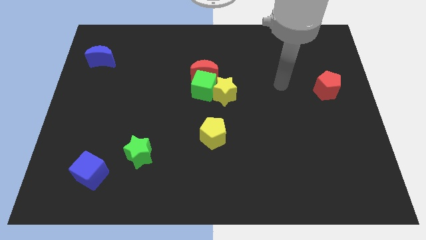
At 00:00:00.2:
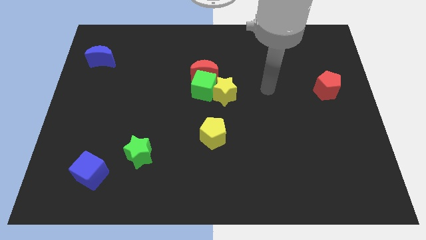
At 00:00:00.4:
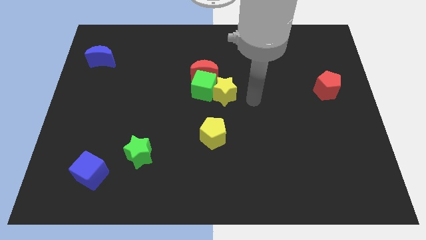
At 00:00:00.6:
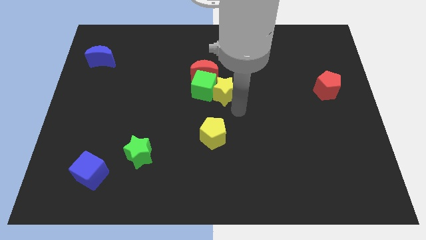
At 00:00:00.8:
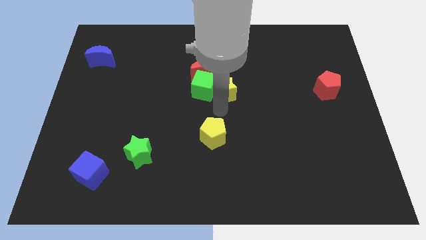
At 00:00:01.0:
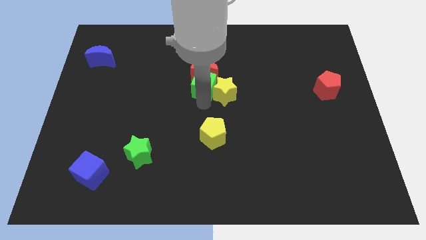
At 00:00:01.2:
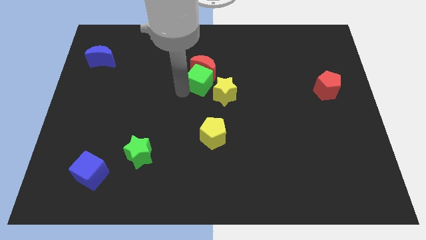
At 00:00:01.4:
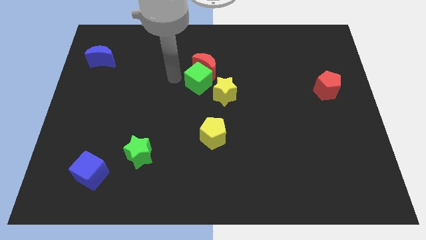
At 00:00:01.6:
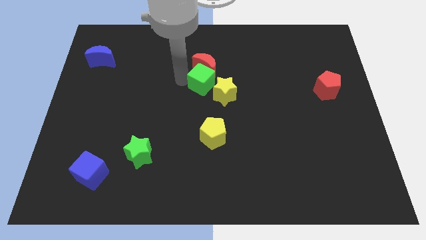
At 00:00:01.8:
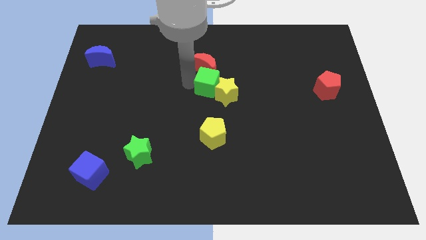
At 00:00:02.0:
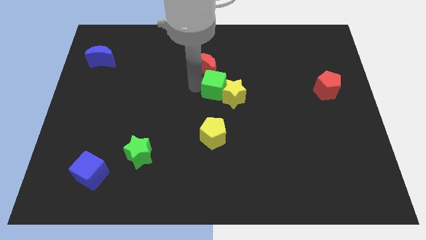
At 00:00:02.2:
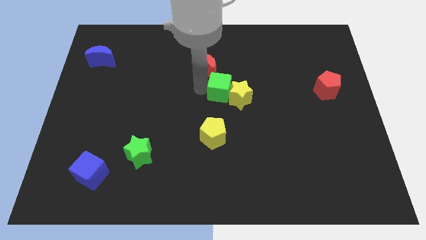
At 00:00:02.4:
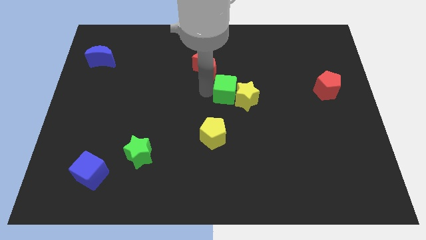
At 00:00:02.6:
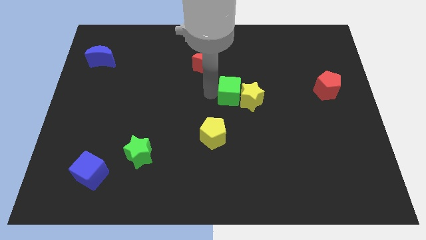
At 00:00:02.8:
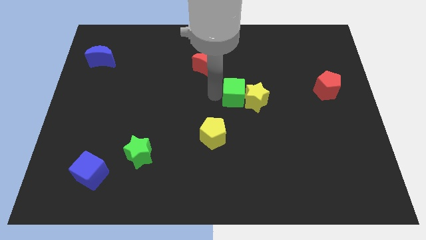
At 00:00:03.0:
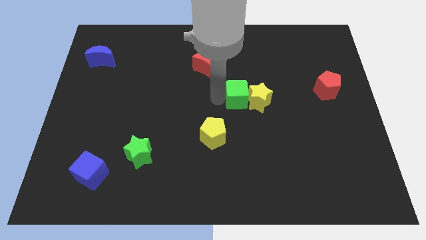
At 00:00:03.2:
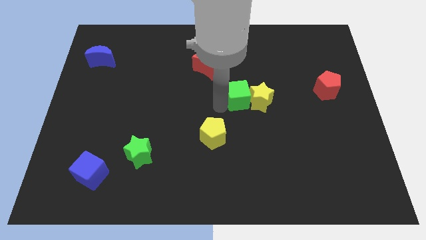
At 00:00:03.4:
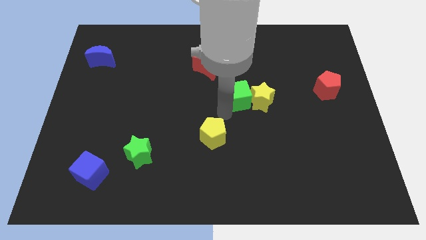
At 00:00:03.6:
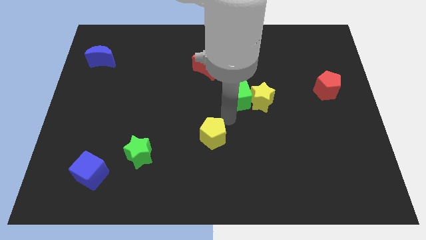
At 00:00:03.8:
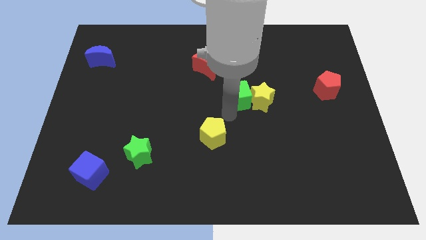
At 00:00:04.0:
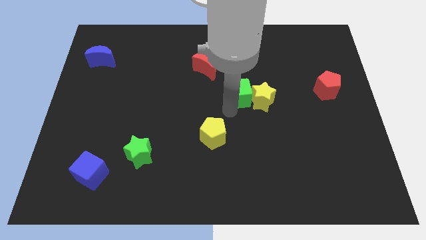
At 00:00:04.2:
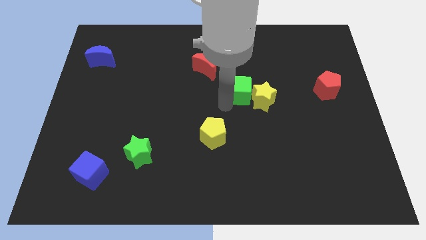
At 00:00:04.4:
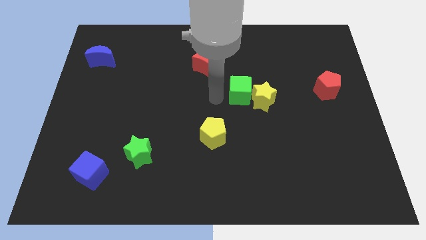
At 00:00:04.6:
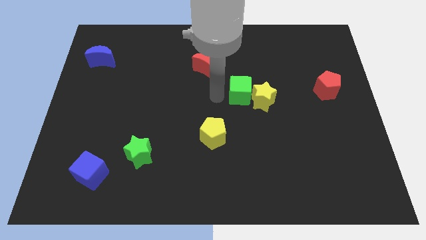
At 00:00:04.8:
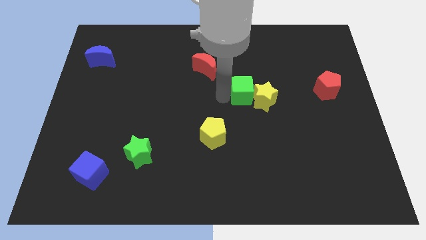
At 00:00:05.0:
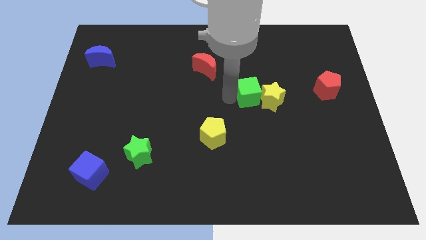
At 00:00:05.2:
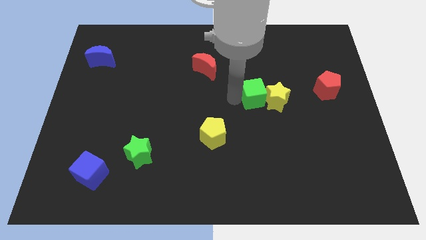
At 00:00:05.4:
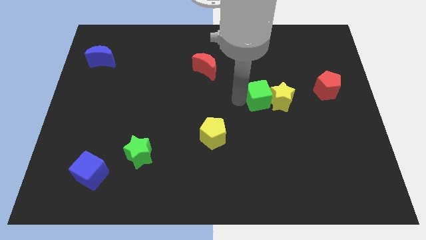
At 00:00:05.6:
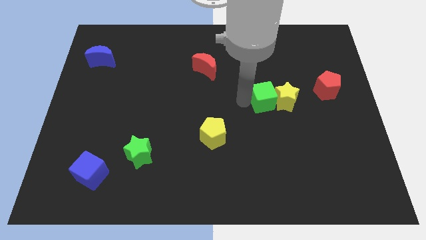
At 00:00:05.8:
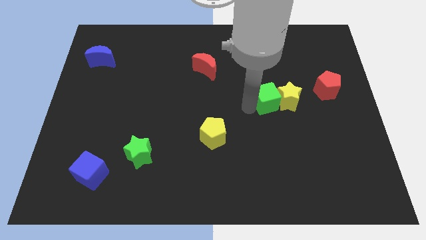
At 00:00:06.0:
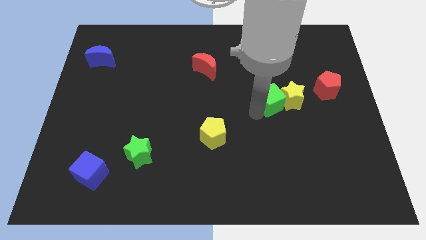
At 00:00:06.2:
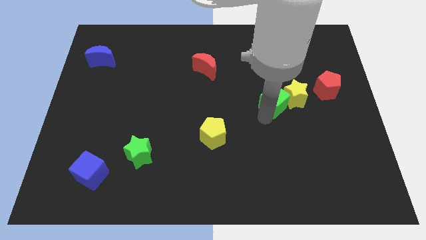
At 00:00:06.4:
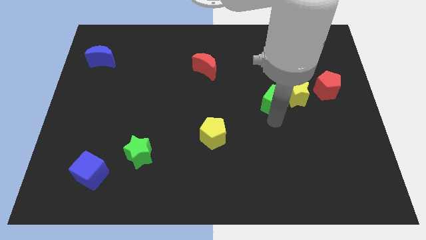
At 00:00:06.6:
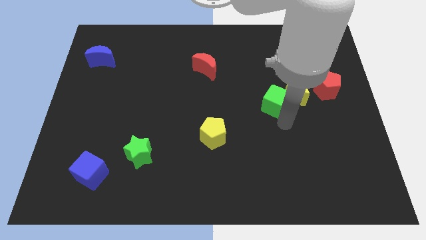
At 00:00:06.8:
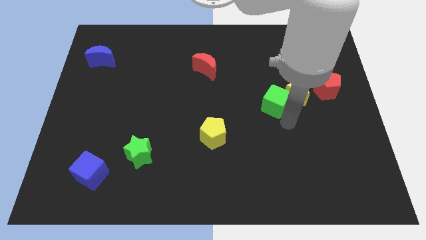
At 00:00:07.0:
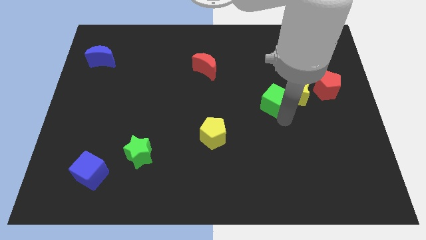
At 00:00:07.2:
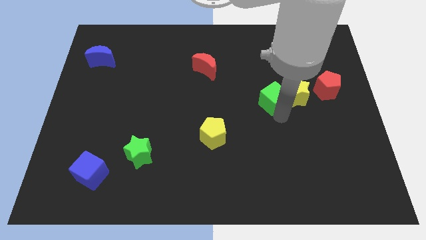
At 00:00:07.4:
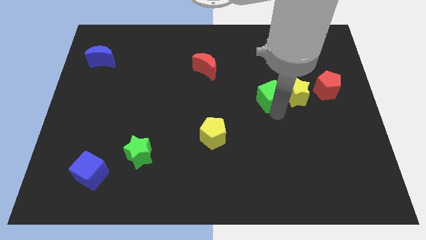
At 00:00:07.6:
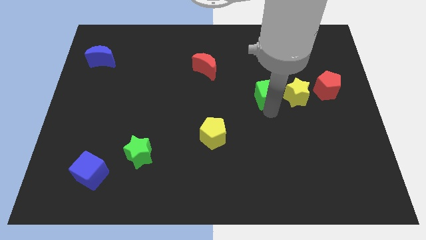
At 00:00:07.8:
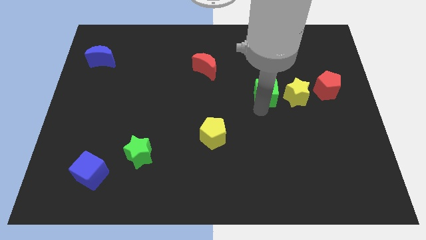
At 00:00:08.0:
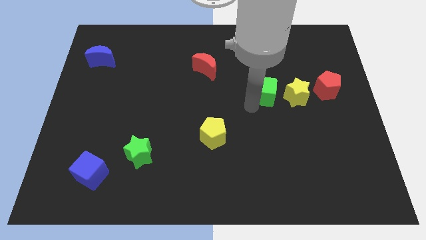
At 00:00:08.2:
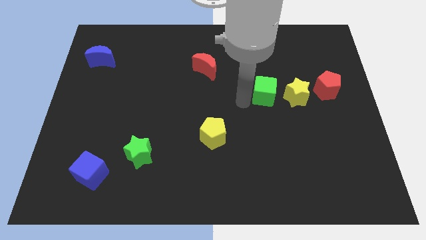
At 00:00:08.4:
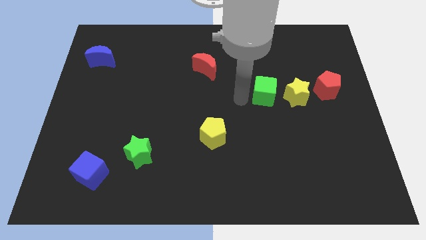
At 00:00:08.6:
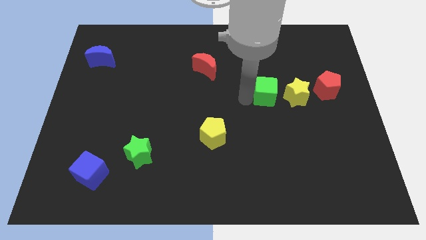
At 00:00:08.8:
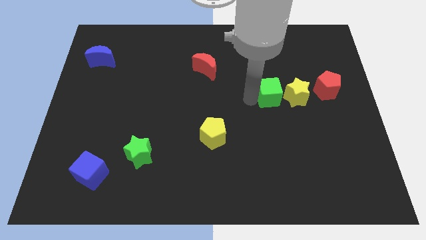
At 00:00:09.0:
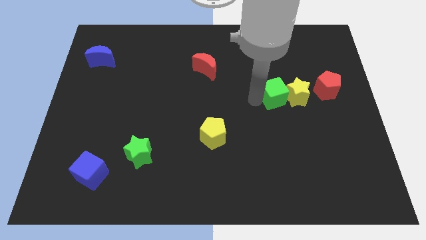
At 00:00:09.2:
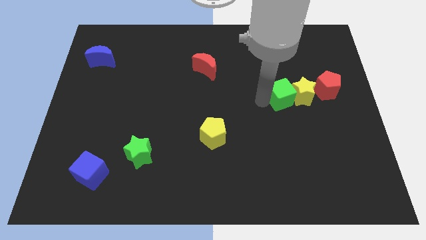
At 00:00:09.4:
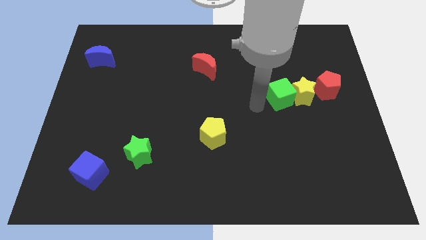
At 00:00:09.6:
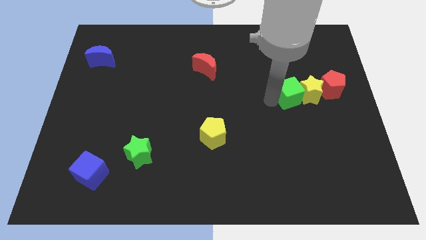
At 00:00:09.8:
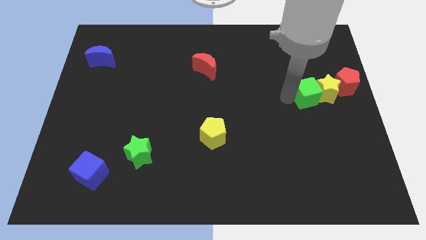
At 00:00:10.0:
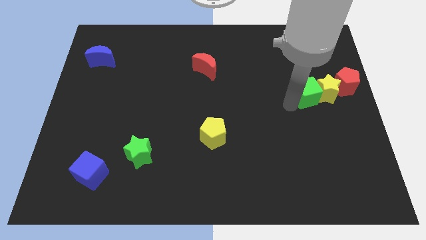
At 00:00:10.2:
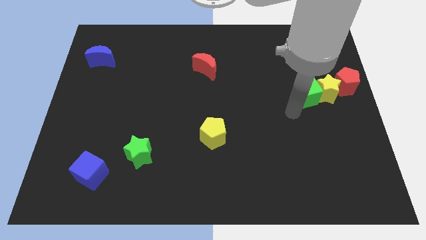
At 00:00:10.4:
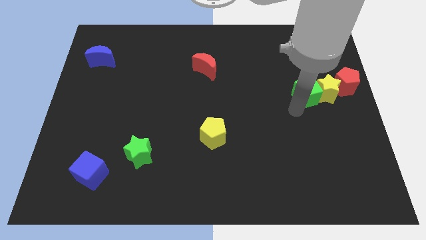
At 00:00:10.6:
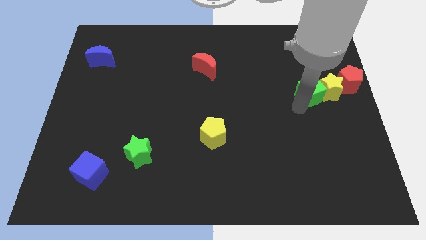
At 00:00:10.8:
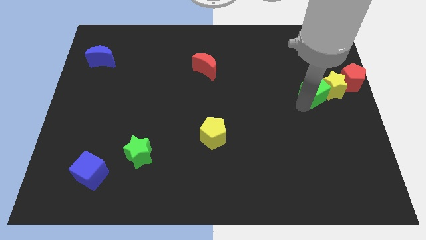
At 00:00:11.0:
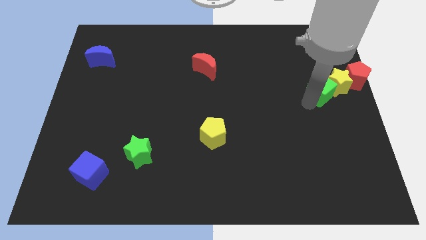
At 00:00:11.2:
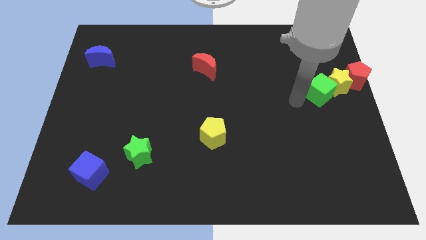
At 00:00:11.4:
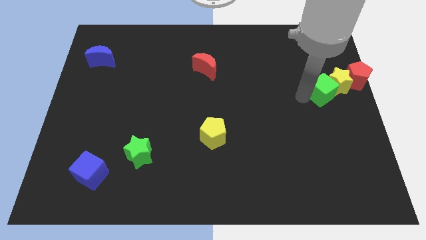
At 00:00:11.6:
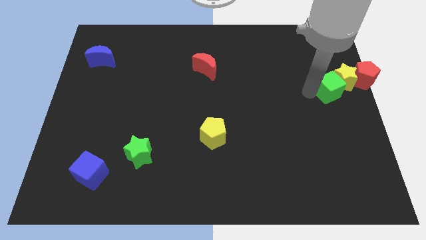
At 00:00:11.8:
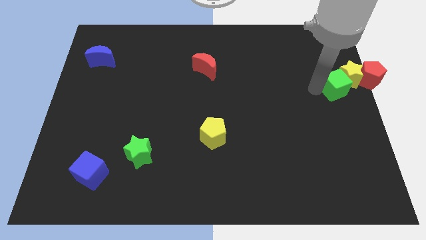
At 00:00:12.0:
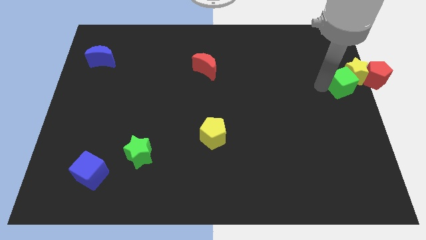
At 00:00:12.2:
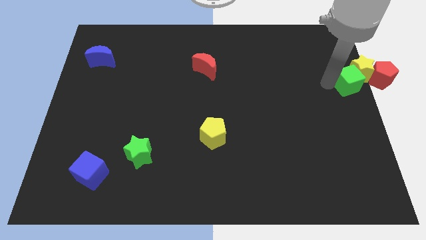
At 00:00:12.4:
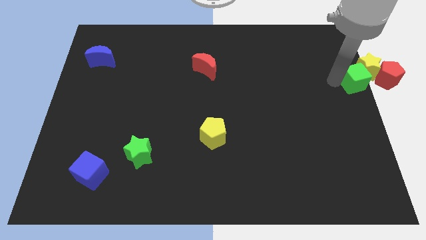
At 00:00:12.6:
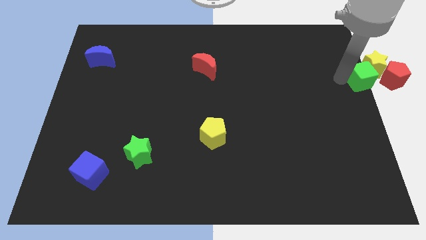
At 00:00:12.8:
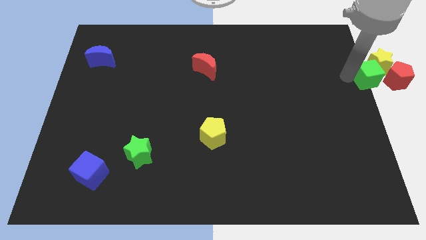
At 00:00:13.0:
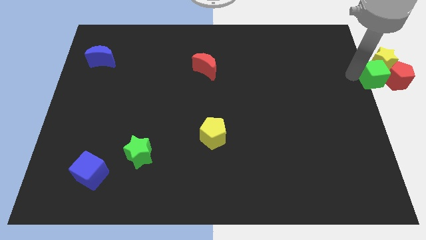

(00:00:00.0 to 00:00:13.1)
push the green cube next to the red pentagon

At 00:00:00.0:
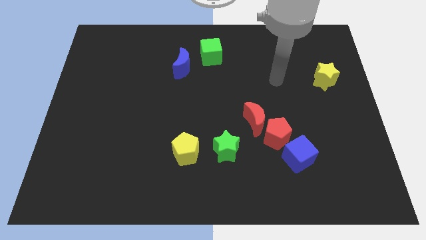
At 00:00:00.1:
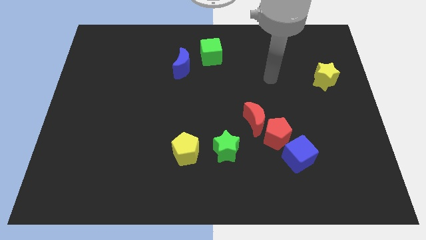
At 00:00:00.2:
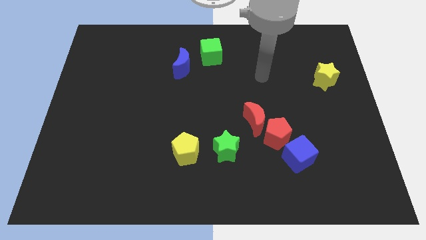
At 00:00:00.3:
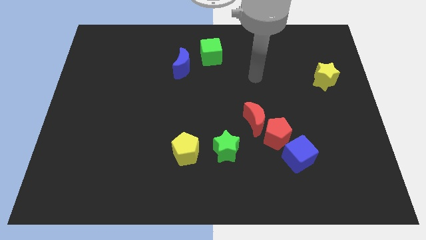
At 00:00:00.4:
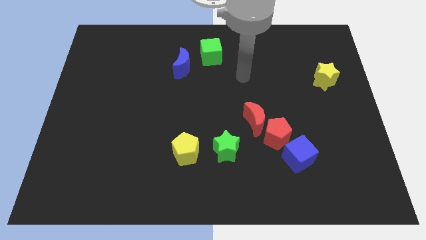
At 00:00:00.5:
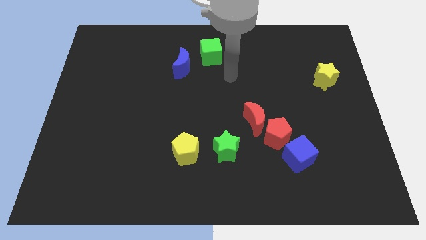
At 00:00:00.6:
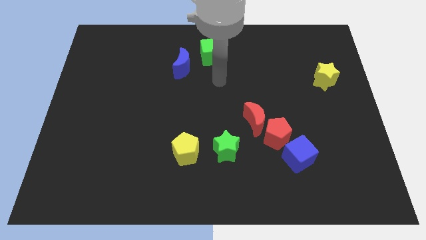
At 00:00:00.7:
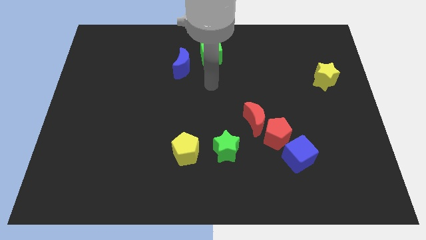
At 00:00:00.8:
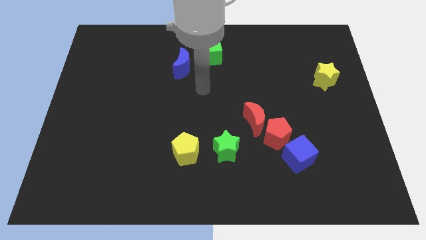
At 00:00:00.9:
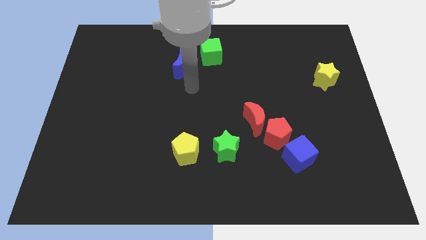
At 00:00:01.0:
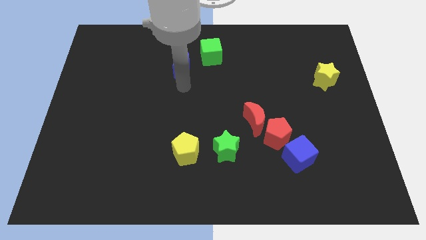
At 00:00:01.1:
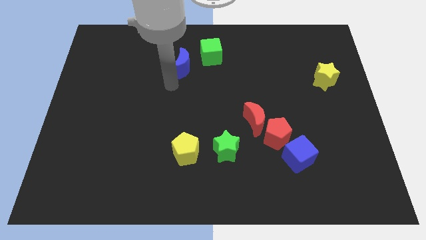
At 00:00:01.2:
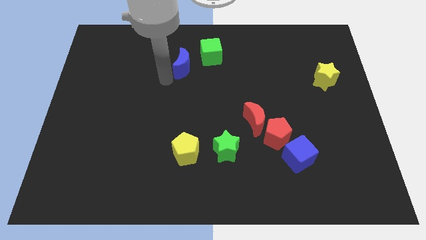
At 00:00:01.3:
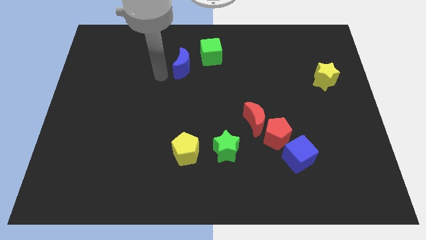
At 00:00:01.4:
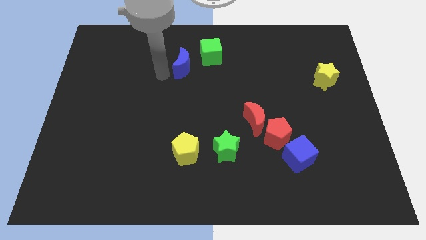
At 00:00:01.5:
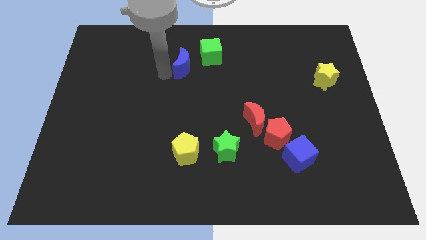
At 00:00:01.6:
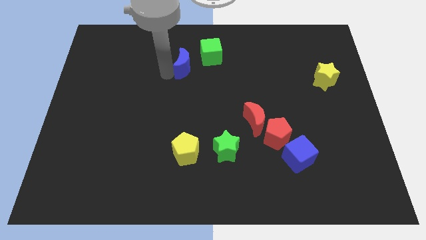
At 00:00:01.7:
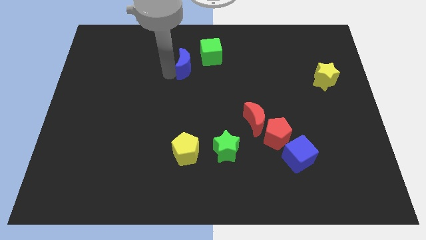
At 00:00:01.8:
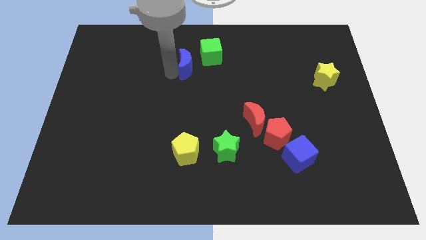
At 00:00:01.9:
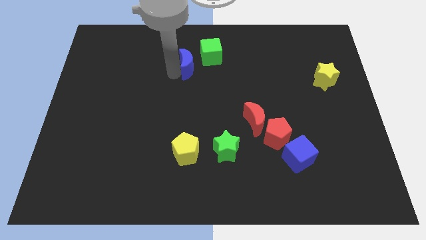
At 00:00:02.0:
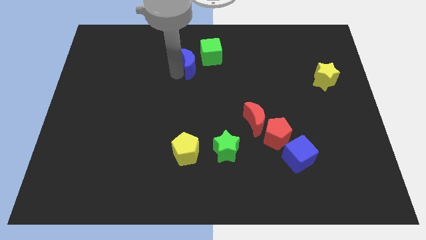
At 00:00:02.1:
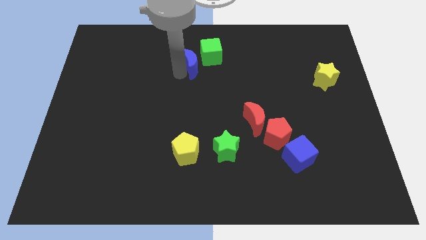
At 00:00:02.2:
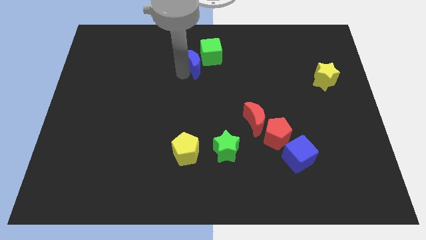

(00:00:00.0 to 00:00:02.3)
push the blue moon towards the green cube
